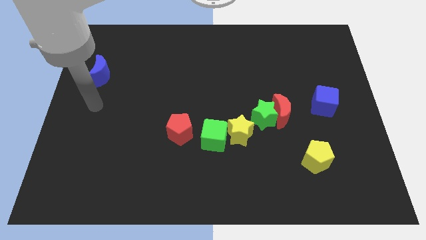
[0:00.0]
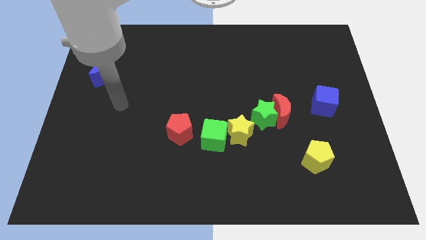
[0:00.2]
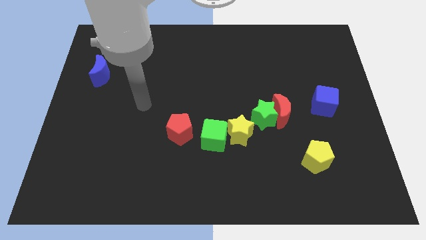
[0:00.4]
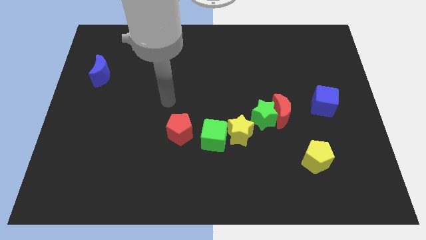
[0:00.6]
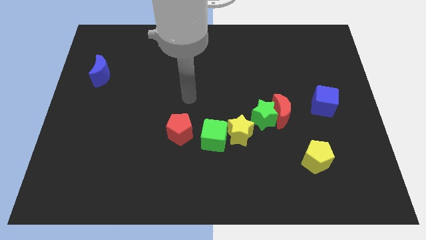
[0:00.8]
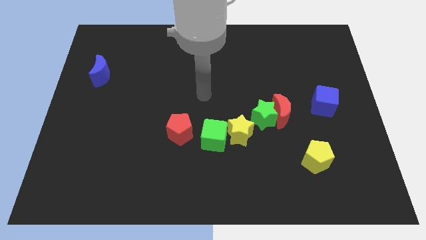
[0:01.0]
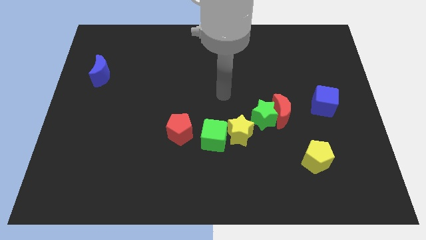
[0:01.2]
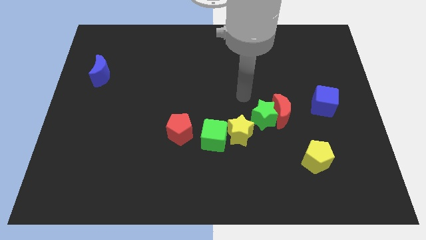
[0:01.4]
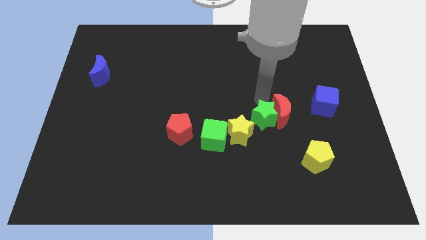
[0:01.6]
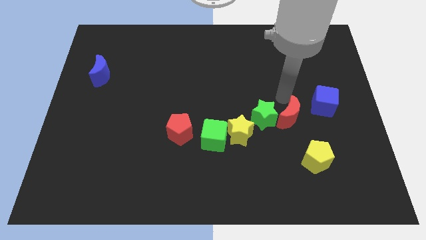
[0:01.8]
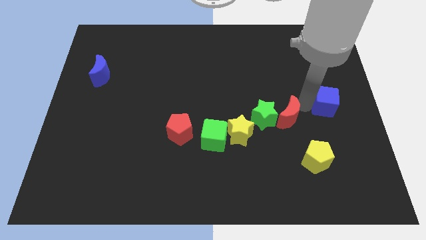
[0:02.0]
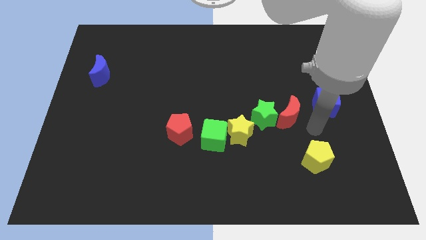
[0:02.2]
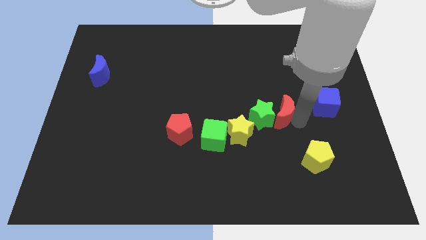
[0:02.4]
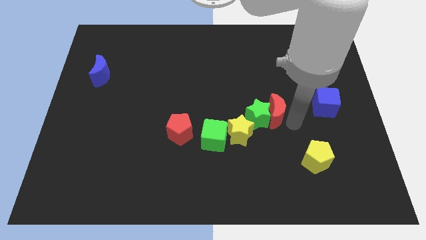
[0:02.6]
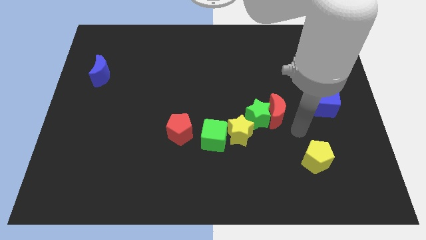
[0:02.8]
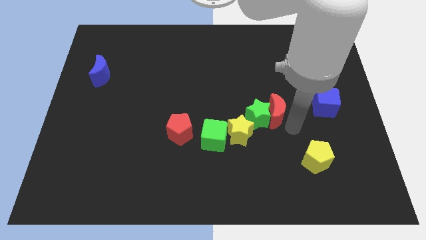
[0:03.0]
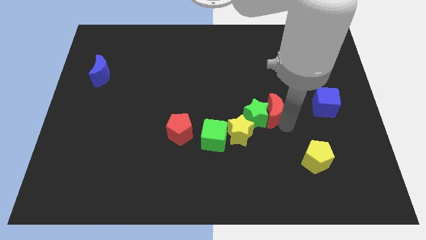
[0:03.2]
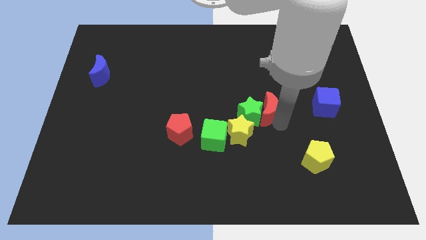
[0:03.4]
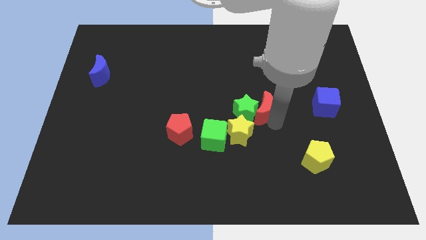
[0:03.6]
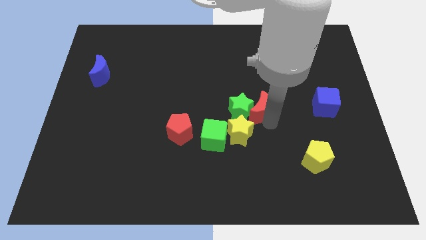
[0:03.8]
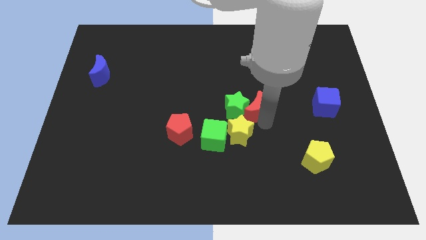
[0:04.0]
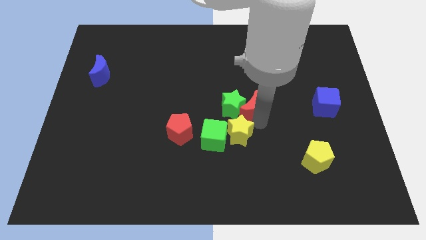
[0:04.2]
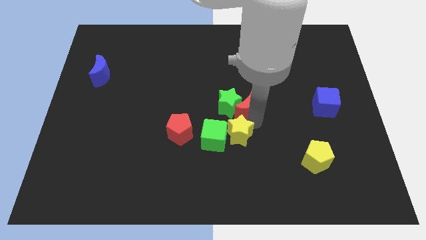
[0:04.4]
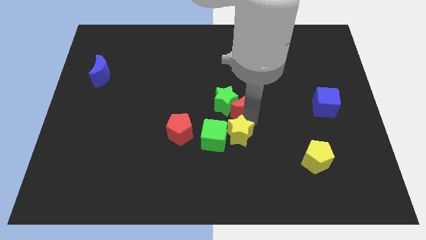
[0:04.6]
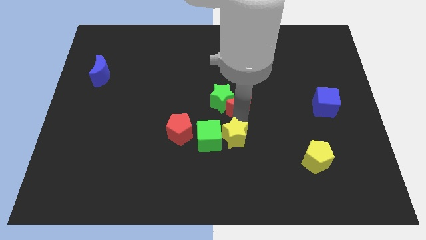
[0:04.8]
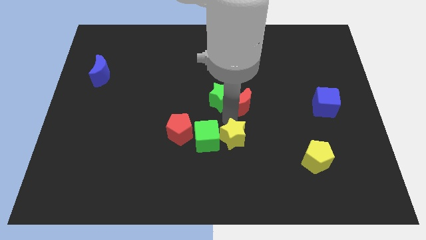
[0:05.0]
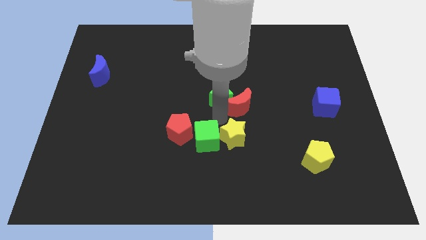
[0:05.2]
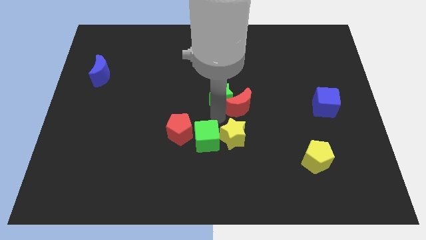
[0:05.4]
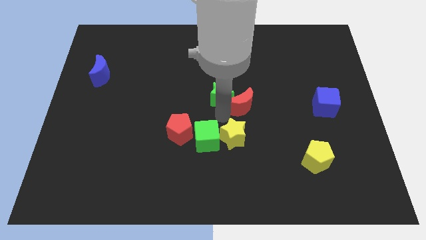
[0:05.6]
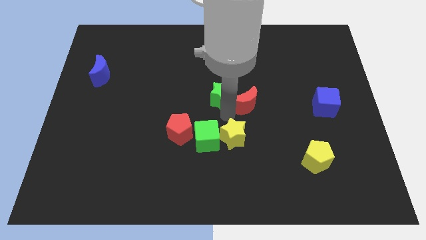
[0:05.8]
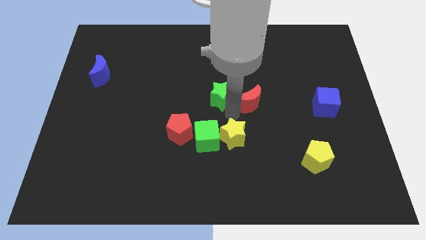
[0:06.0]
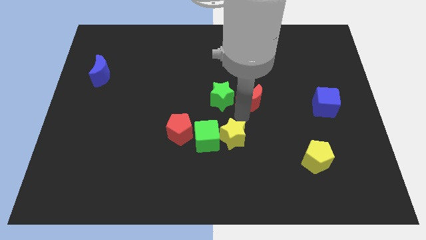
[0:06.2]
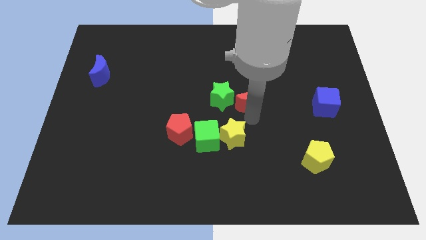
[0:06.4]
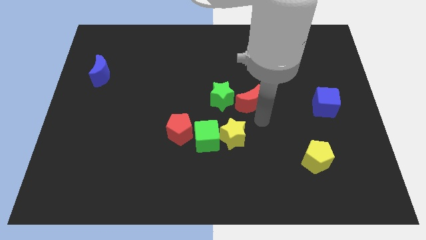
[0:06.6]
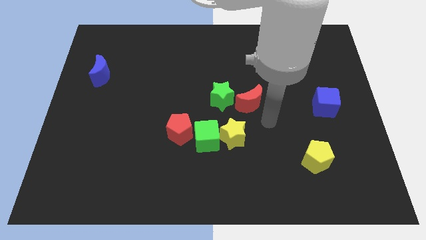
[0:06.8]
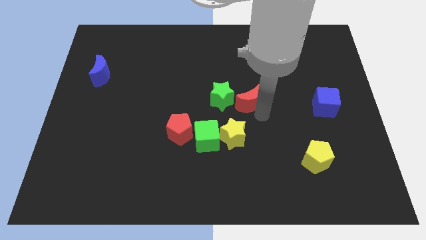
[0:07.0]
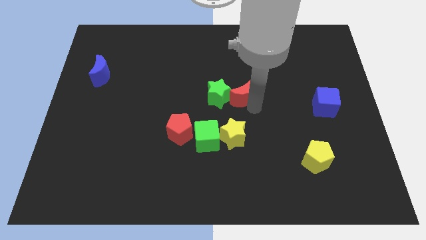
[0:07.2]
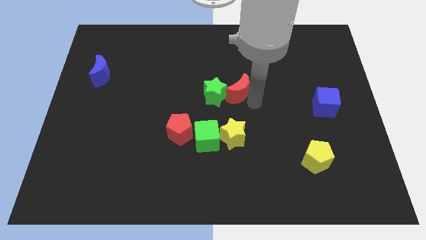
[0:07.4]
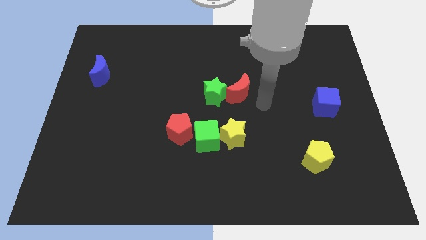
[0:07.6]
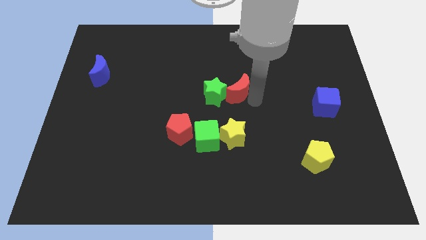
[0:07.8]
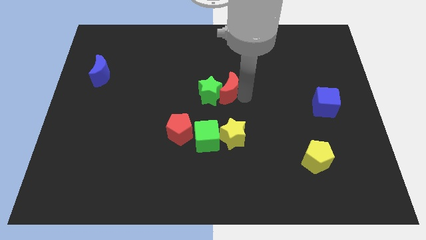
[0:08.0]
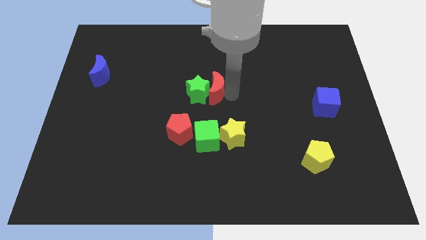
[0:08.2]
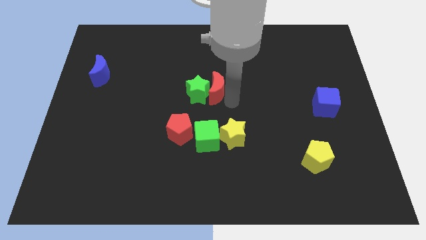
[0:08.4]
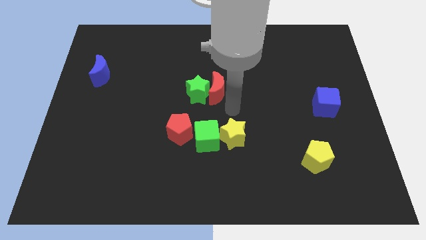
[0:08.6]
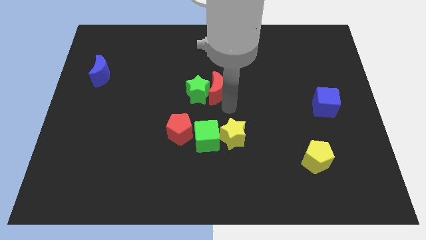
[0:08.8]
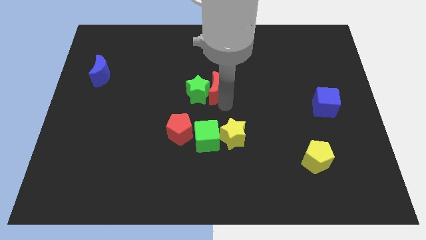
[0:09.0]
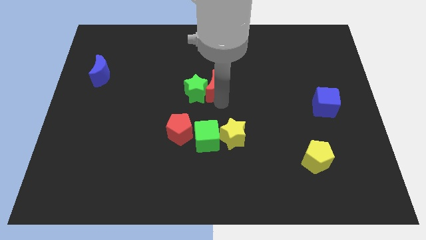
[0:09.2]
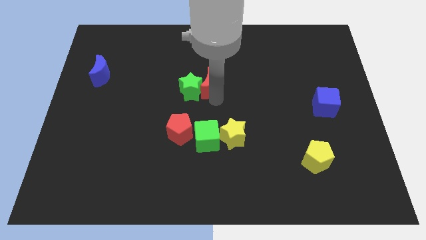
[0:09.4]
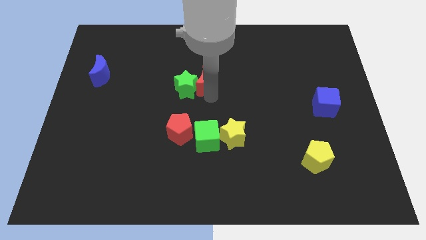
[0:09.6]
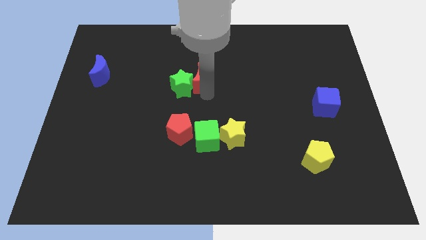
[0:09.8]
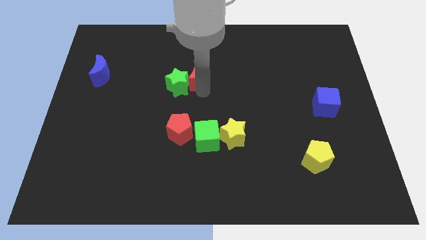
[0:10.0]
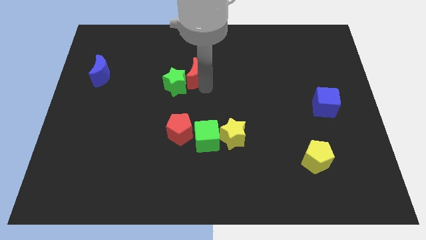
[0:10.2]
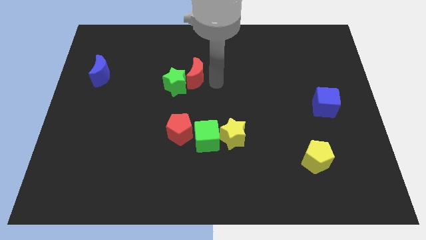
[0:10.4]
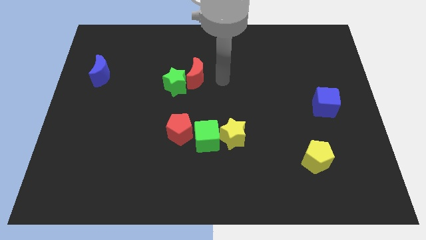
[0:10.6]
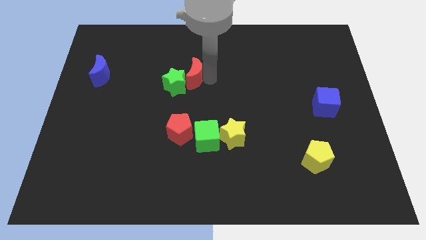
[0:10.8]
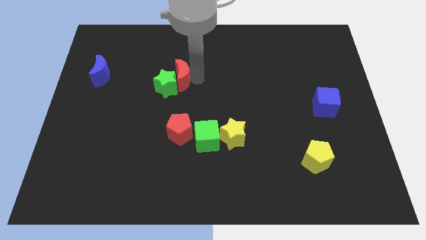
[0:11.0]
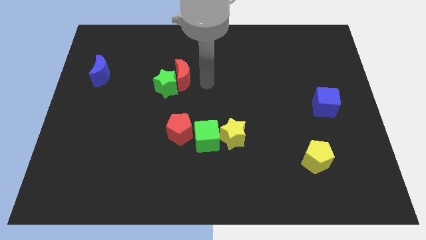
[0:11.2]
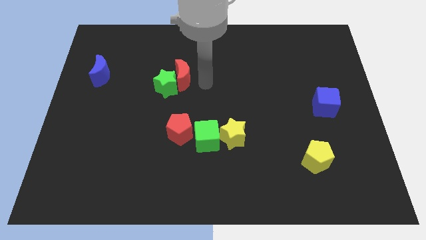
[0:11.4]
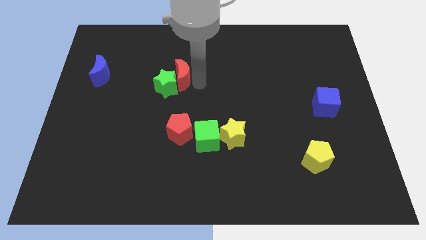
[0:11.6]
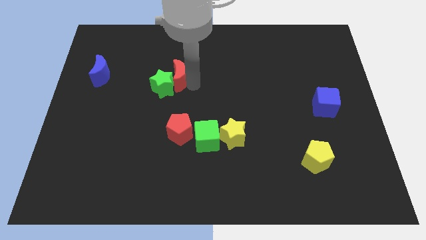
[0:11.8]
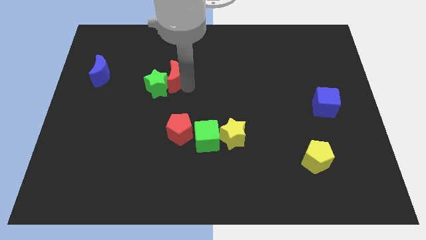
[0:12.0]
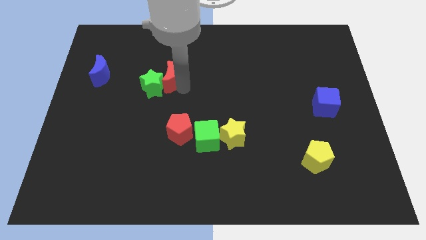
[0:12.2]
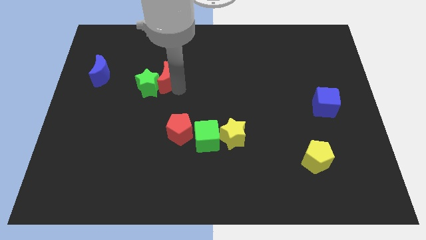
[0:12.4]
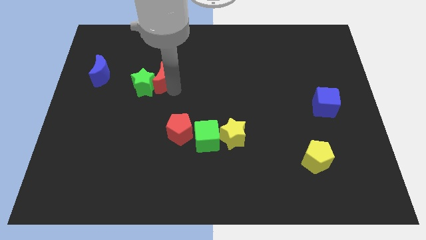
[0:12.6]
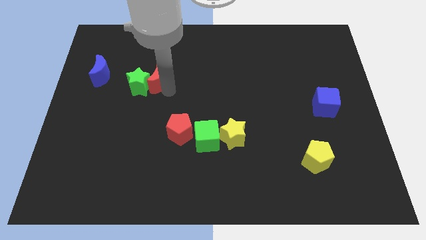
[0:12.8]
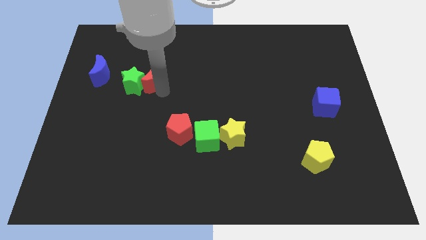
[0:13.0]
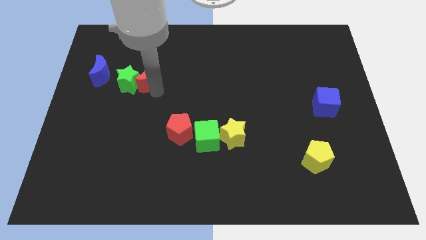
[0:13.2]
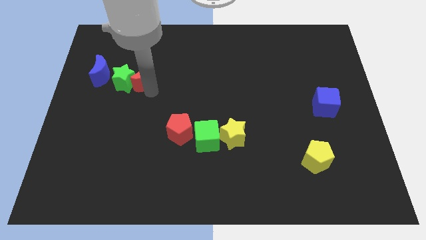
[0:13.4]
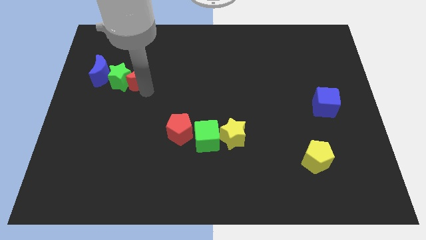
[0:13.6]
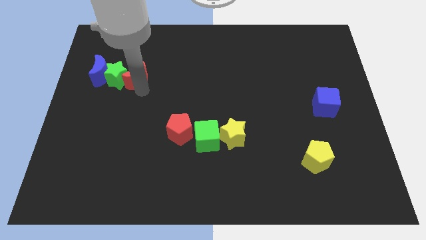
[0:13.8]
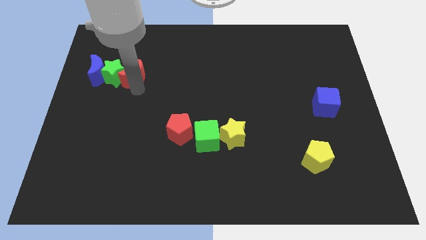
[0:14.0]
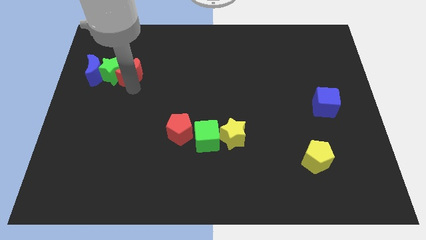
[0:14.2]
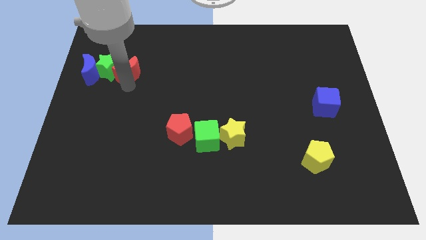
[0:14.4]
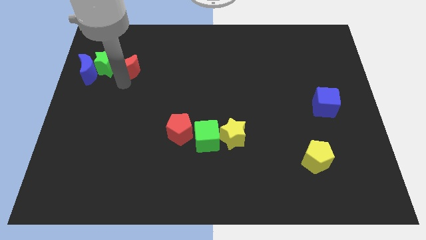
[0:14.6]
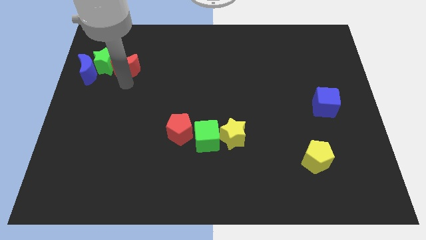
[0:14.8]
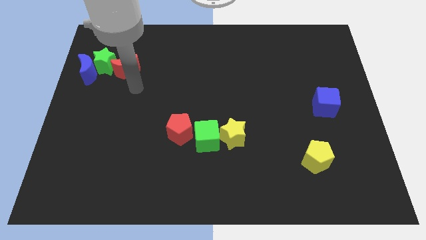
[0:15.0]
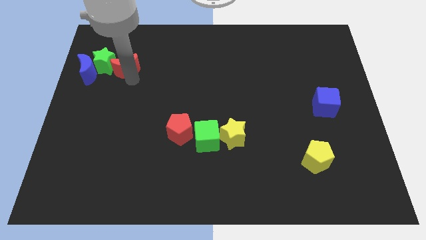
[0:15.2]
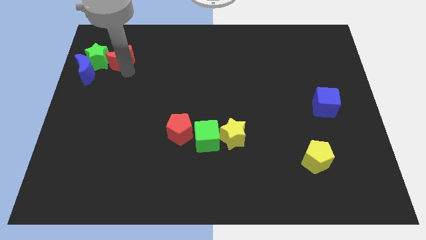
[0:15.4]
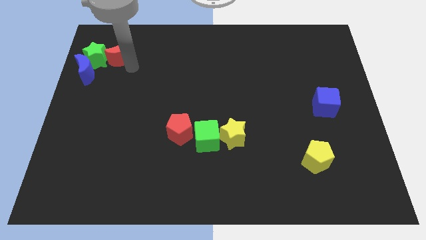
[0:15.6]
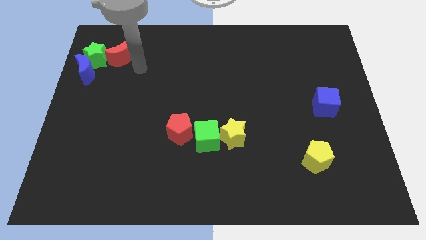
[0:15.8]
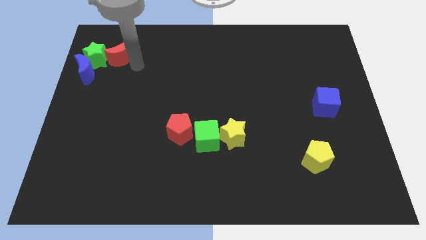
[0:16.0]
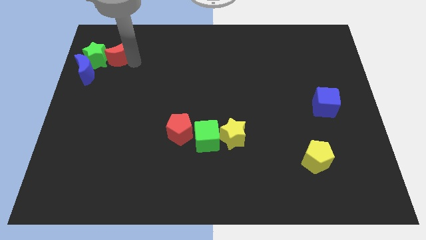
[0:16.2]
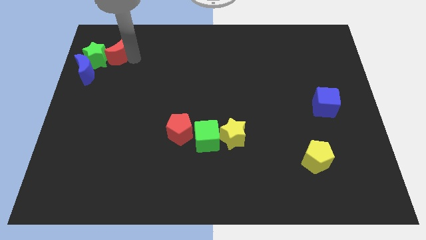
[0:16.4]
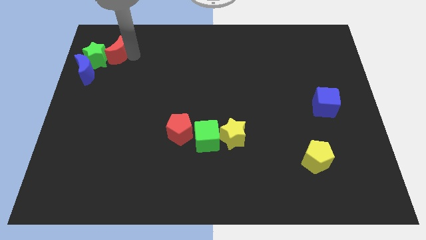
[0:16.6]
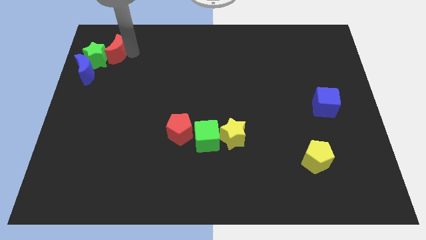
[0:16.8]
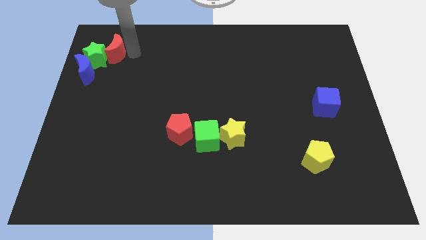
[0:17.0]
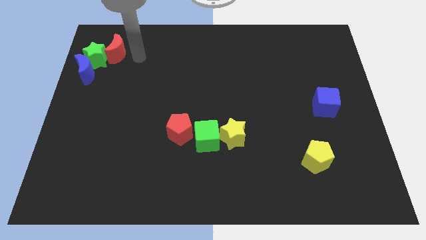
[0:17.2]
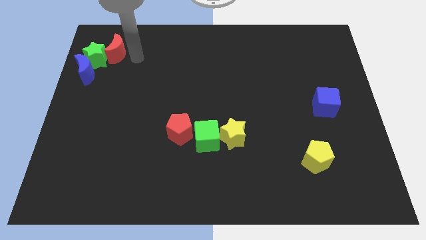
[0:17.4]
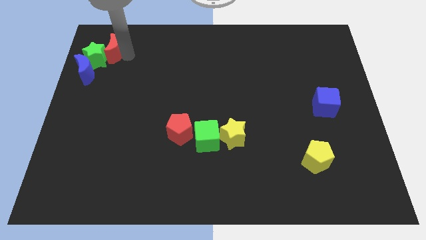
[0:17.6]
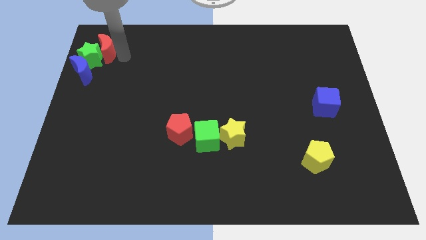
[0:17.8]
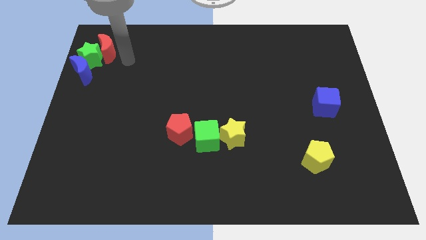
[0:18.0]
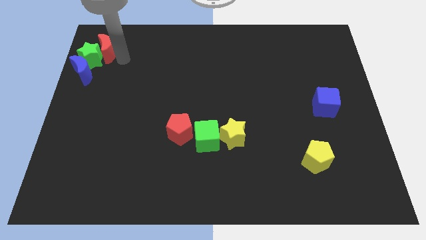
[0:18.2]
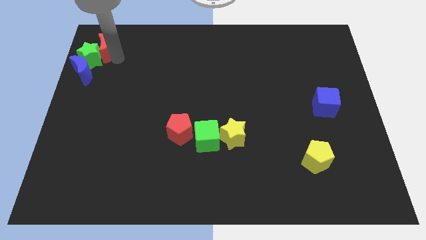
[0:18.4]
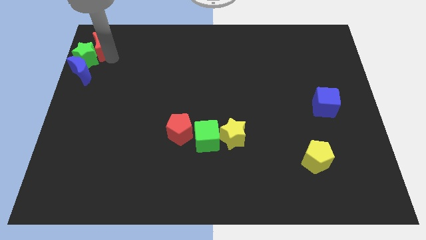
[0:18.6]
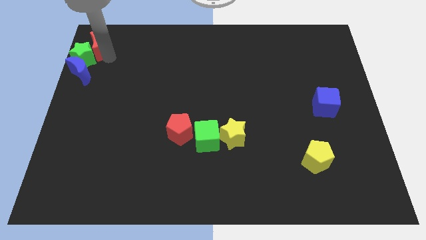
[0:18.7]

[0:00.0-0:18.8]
push the red moon to the upper left corner
